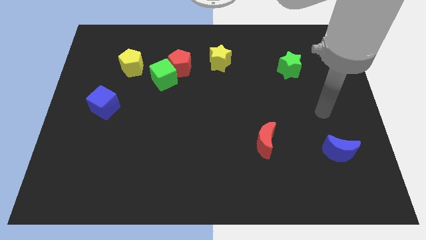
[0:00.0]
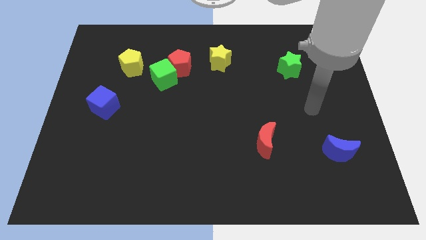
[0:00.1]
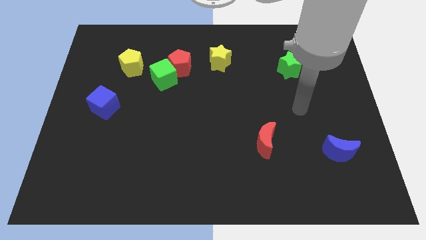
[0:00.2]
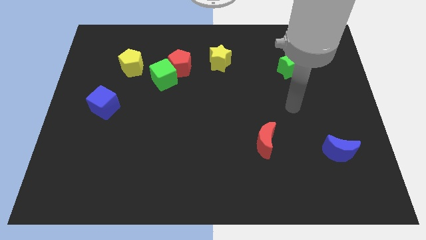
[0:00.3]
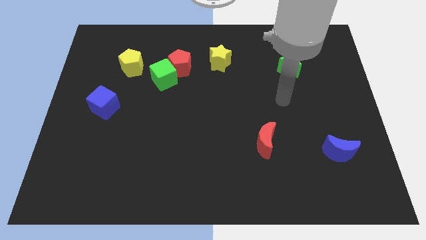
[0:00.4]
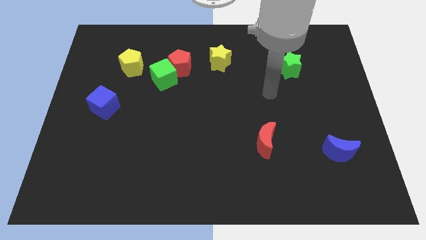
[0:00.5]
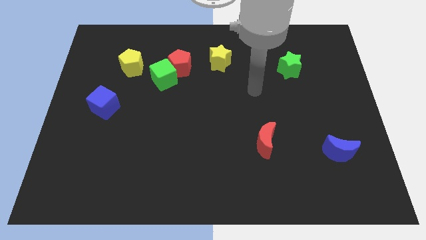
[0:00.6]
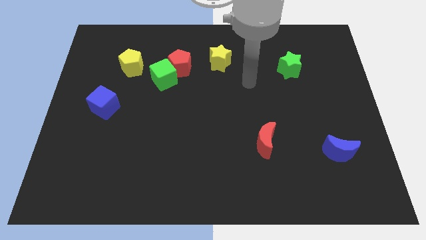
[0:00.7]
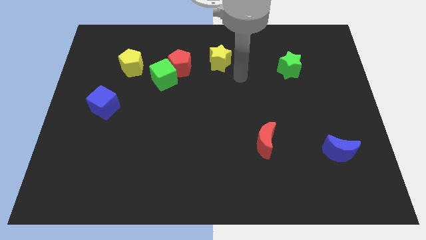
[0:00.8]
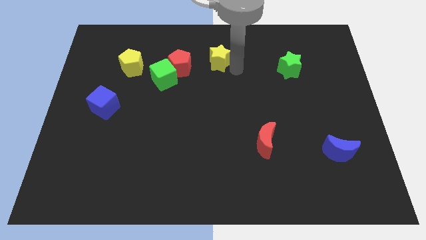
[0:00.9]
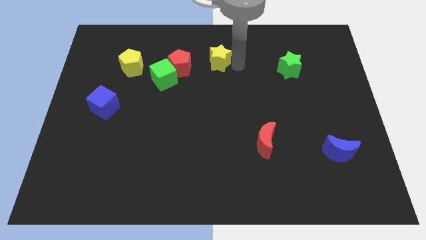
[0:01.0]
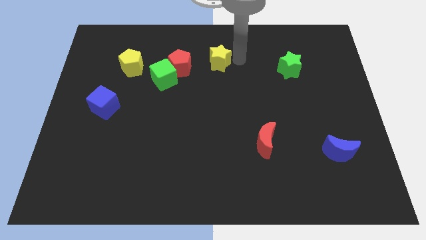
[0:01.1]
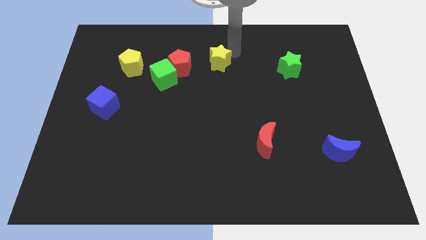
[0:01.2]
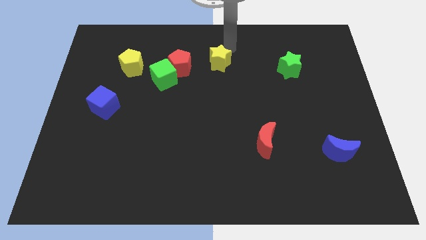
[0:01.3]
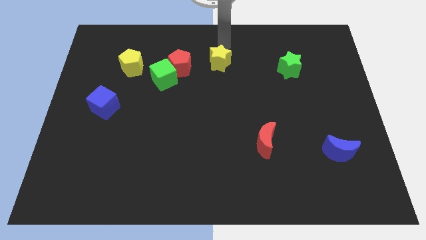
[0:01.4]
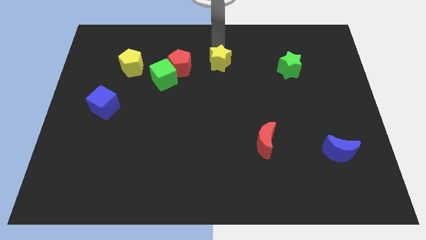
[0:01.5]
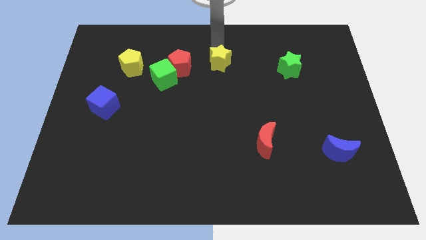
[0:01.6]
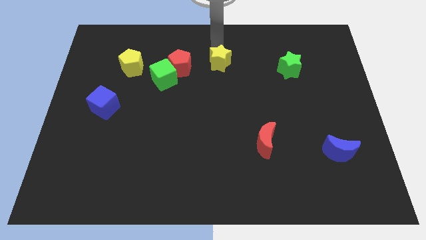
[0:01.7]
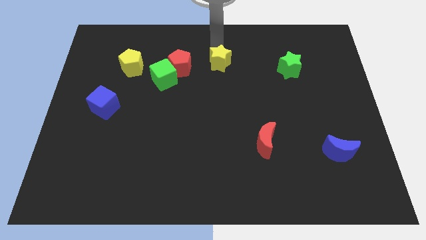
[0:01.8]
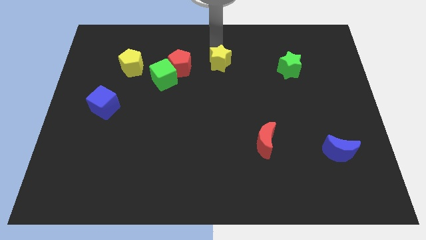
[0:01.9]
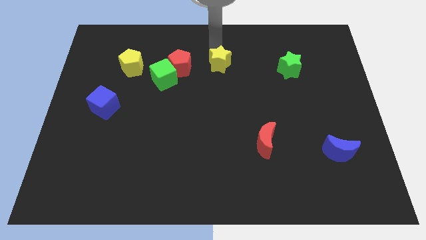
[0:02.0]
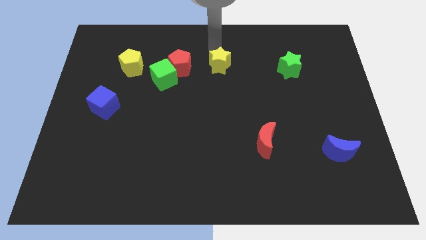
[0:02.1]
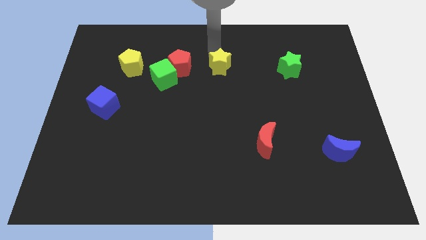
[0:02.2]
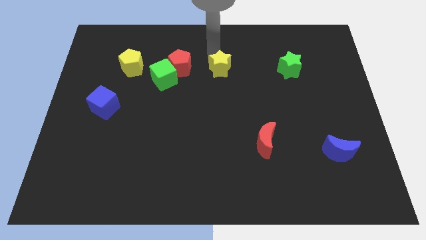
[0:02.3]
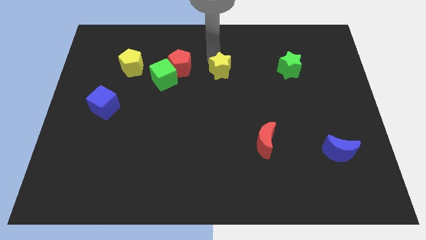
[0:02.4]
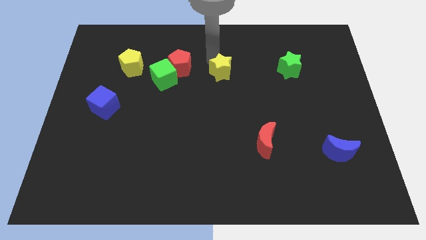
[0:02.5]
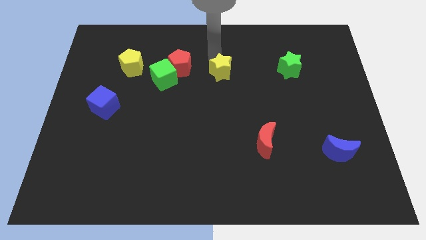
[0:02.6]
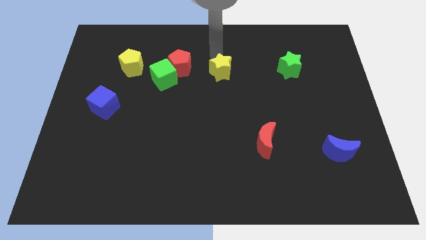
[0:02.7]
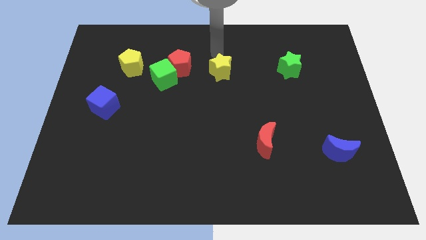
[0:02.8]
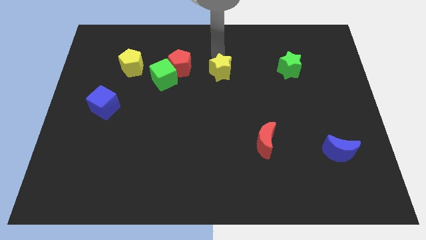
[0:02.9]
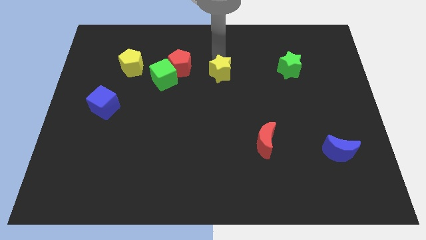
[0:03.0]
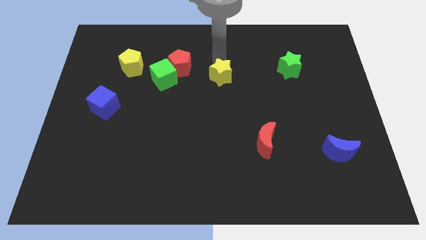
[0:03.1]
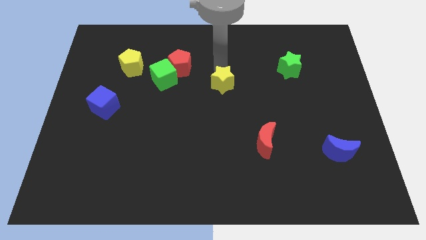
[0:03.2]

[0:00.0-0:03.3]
move the yellow star a little bit downwards

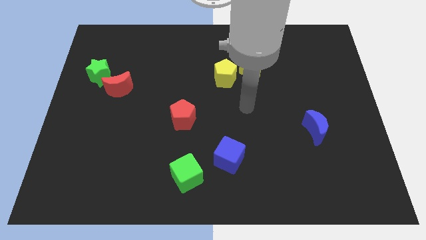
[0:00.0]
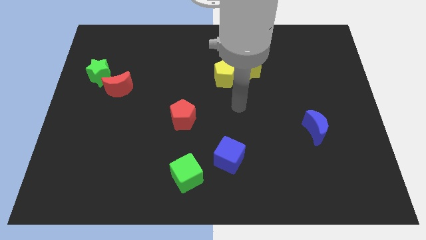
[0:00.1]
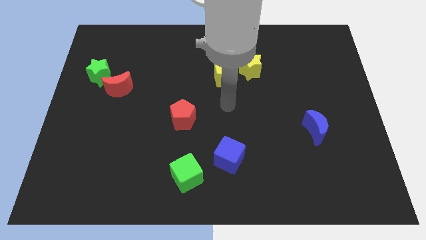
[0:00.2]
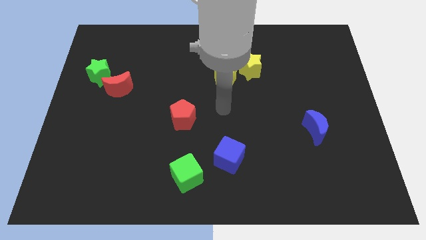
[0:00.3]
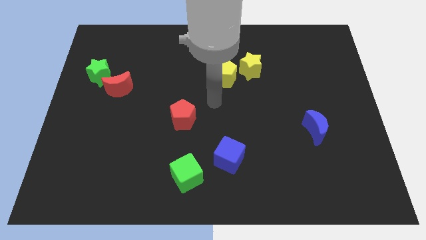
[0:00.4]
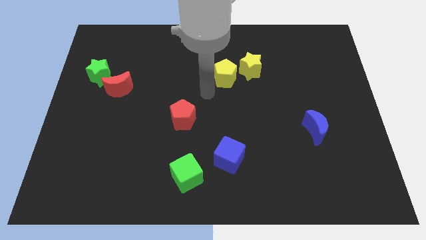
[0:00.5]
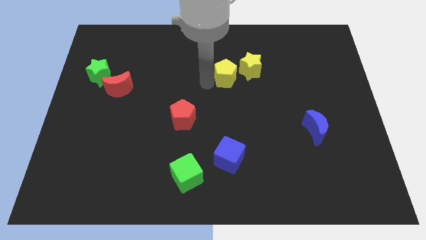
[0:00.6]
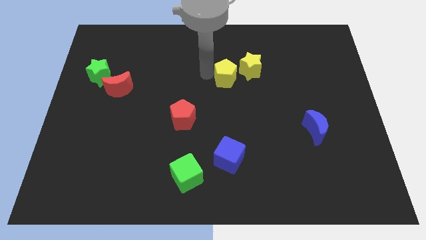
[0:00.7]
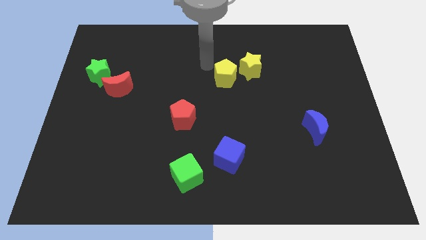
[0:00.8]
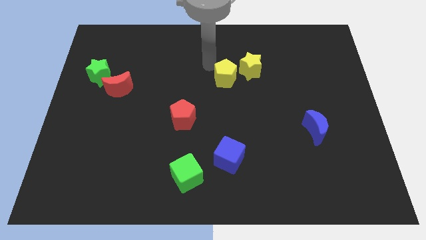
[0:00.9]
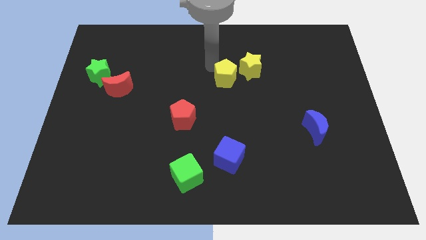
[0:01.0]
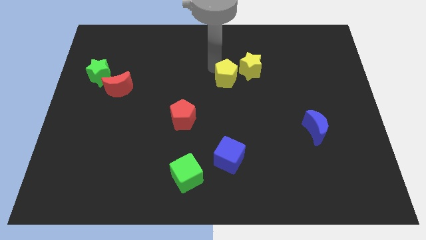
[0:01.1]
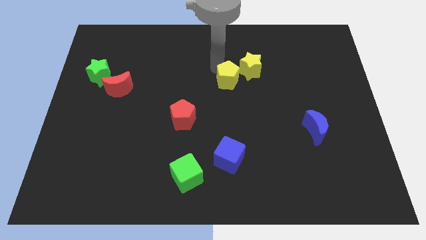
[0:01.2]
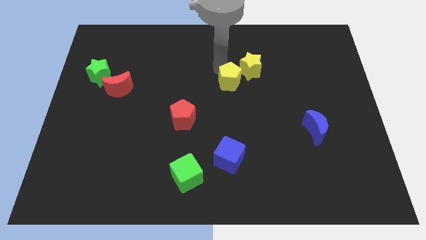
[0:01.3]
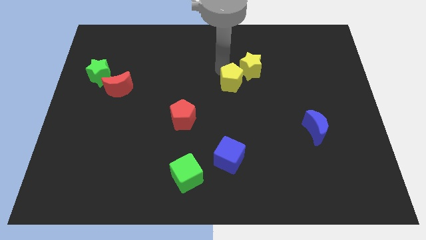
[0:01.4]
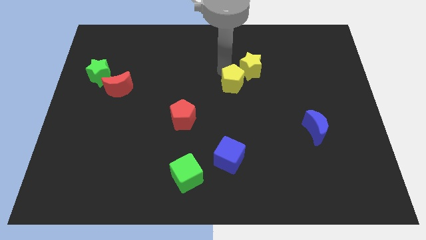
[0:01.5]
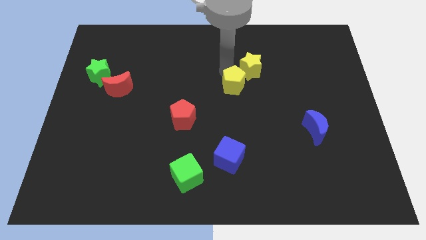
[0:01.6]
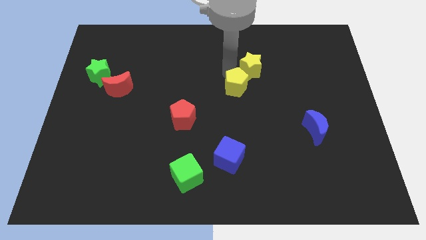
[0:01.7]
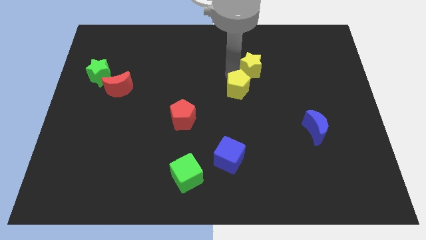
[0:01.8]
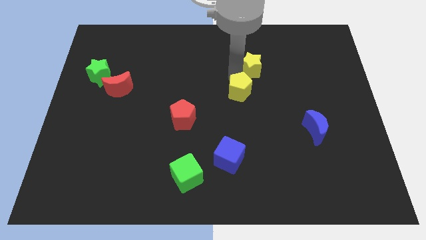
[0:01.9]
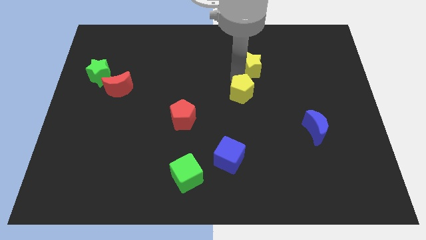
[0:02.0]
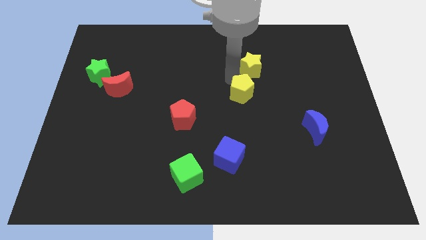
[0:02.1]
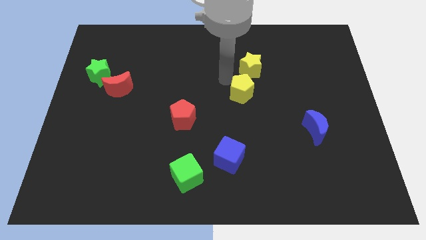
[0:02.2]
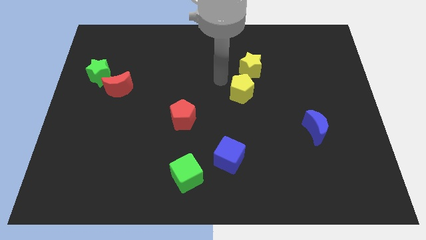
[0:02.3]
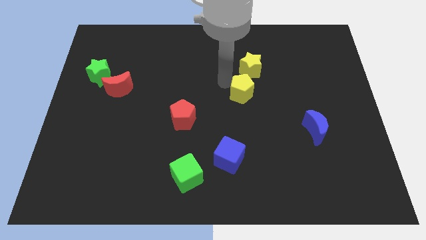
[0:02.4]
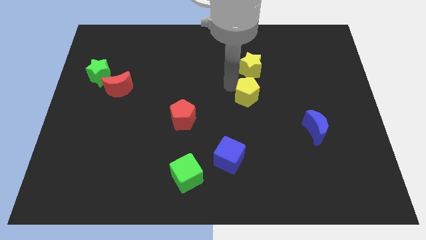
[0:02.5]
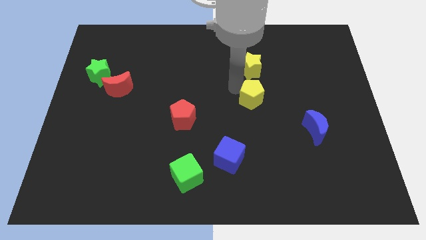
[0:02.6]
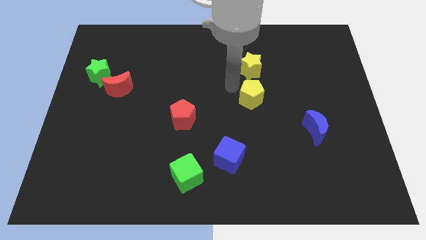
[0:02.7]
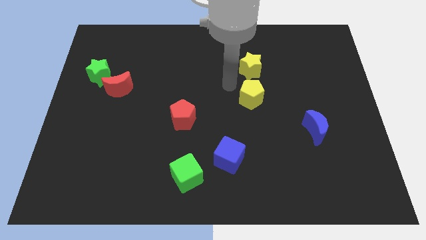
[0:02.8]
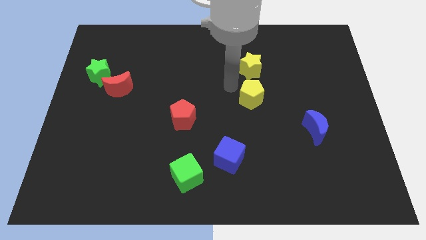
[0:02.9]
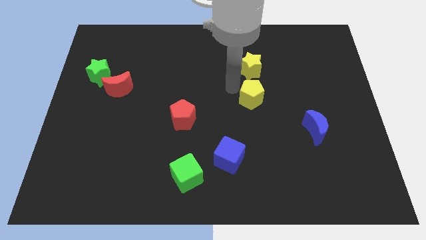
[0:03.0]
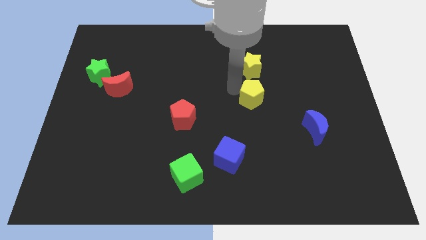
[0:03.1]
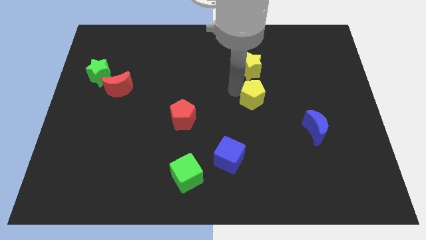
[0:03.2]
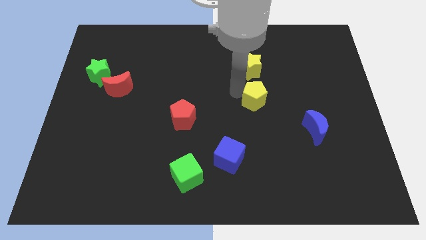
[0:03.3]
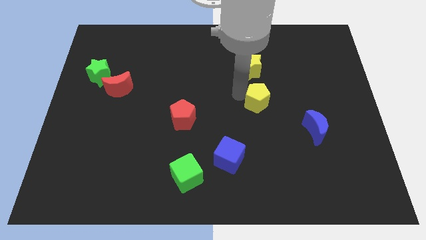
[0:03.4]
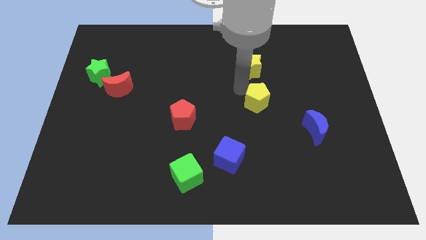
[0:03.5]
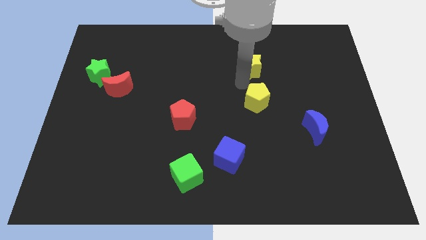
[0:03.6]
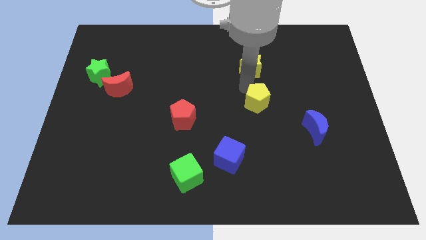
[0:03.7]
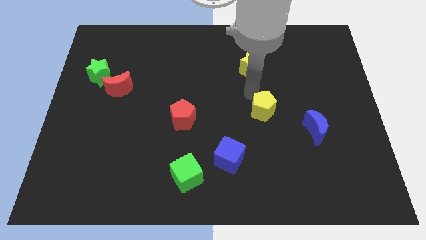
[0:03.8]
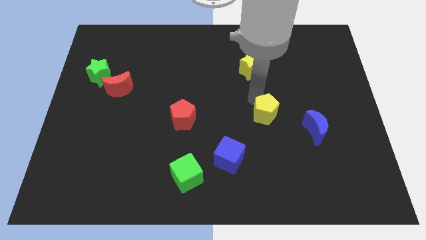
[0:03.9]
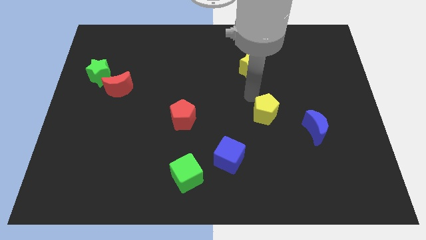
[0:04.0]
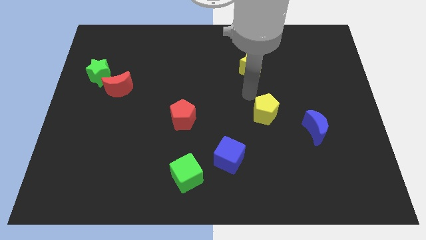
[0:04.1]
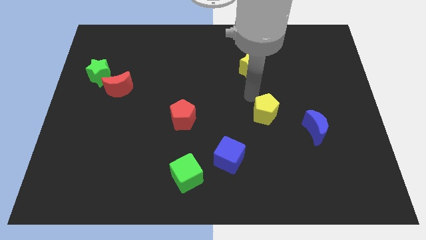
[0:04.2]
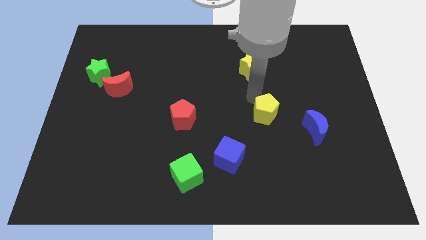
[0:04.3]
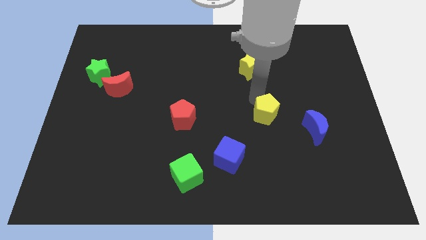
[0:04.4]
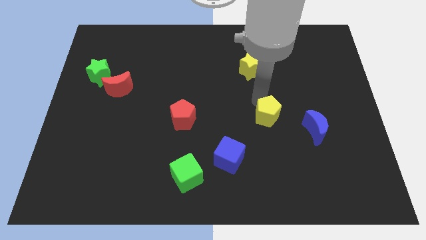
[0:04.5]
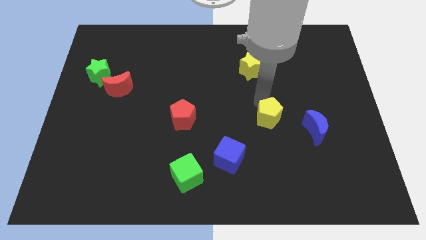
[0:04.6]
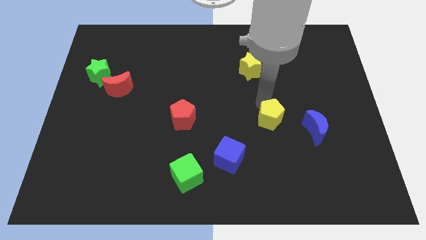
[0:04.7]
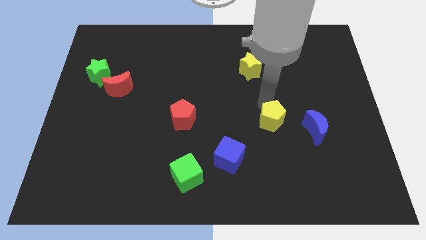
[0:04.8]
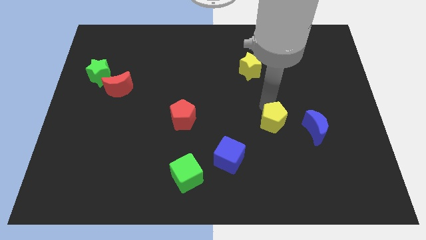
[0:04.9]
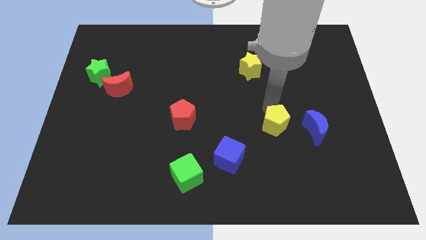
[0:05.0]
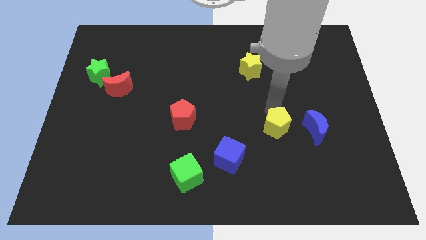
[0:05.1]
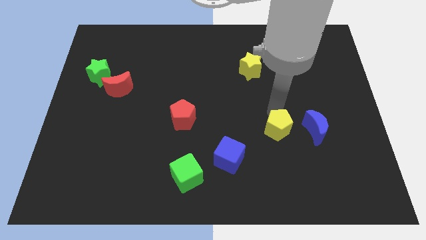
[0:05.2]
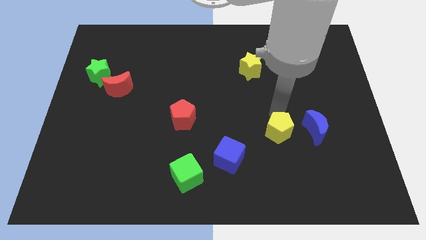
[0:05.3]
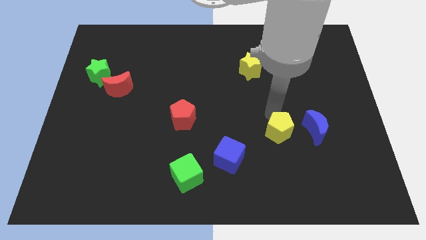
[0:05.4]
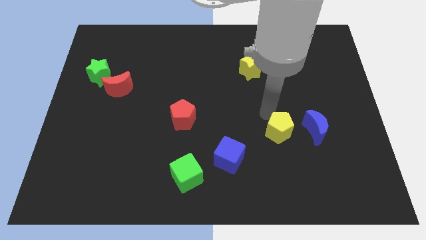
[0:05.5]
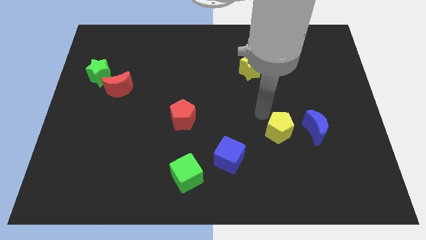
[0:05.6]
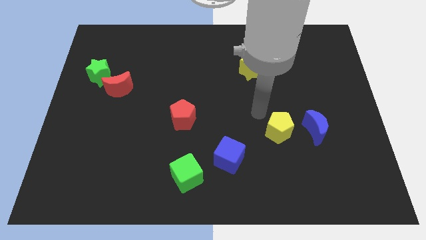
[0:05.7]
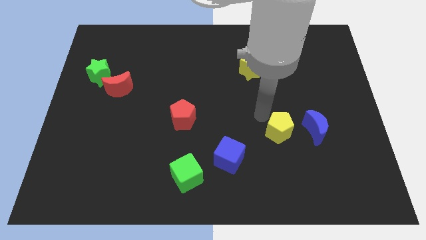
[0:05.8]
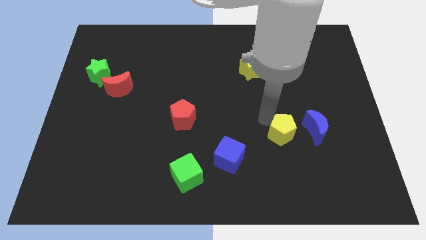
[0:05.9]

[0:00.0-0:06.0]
move the yellow pentagon down and to the right diagonally
